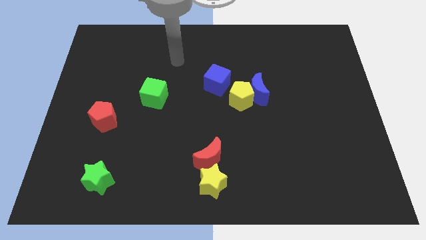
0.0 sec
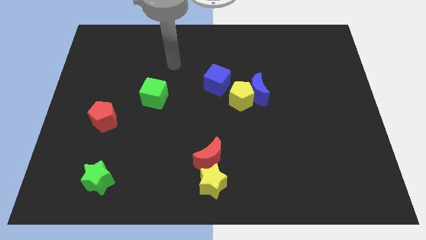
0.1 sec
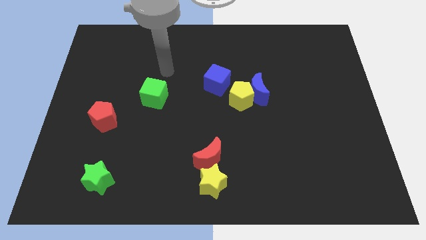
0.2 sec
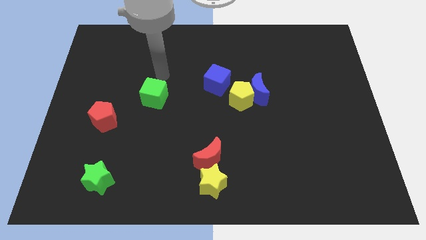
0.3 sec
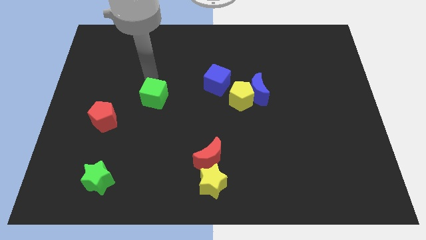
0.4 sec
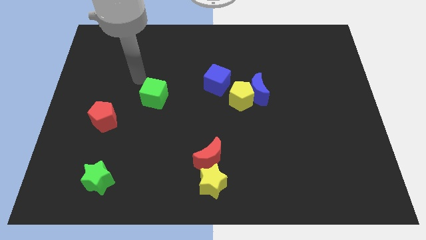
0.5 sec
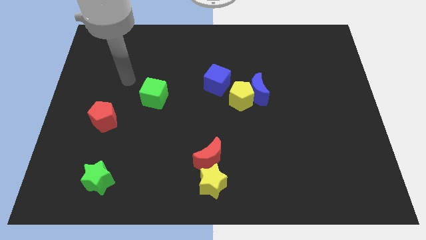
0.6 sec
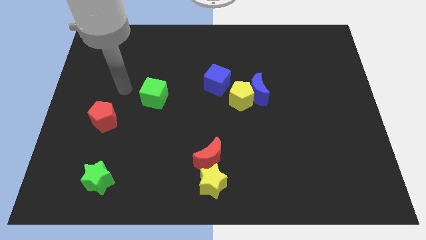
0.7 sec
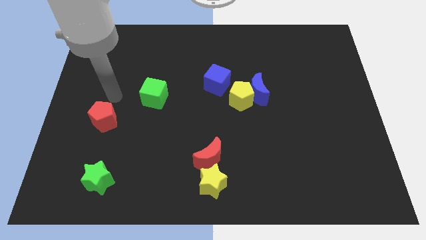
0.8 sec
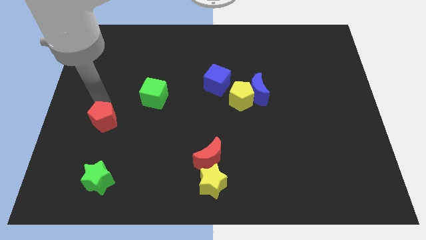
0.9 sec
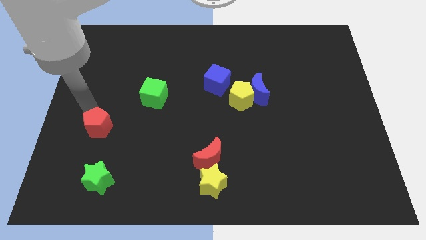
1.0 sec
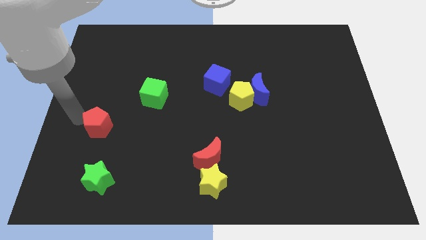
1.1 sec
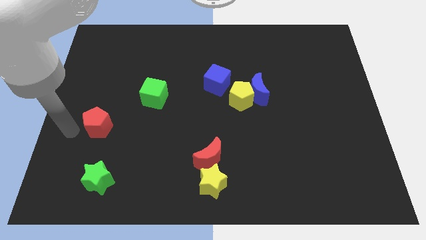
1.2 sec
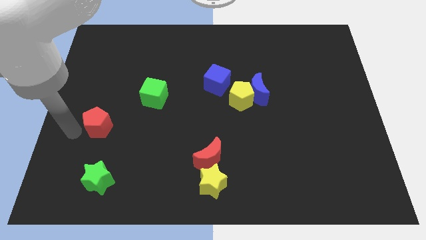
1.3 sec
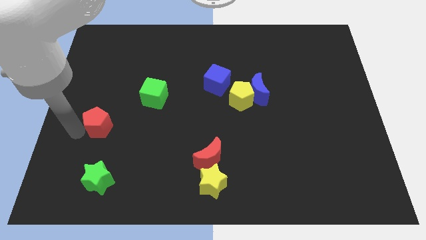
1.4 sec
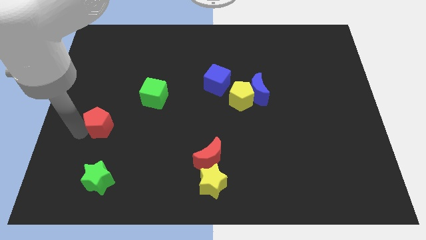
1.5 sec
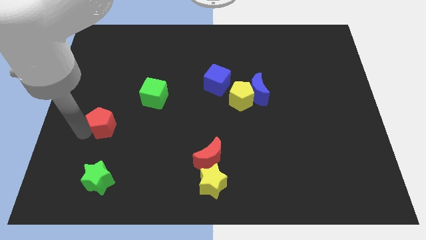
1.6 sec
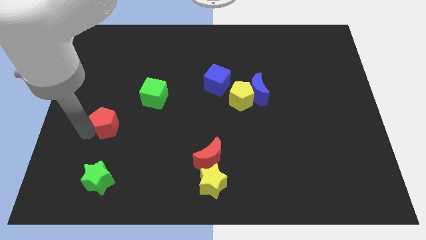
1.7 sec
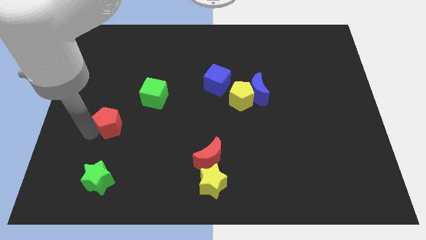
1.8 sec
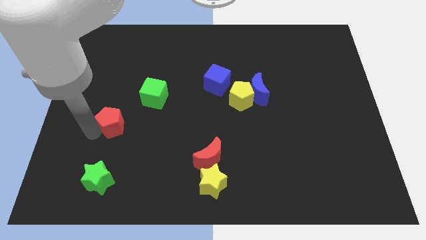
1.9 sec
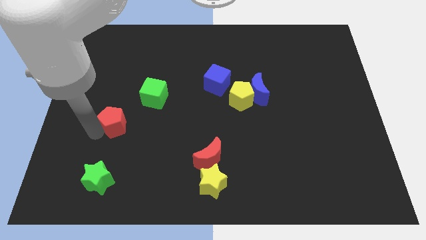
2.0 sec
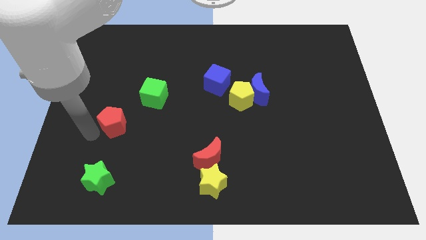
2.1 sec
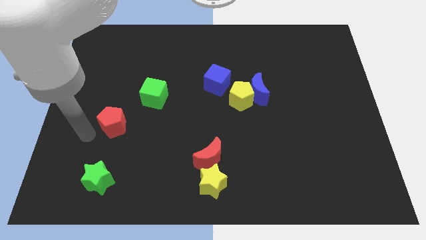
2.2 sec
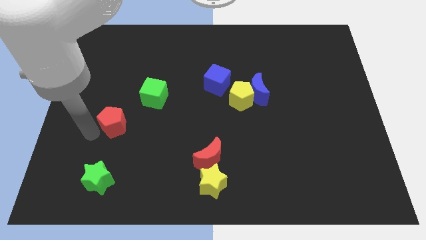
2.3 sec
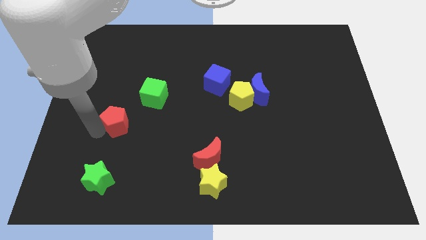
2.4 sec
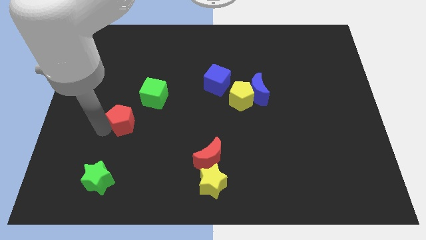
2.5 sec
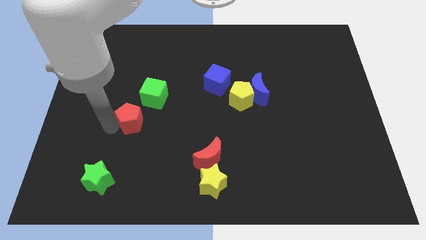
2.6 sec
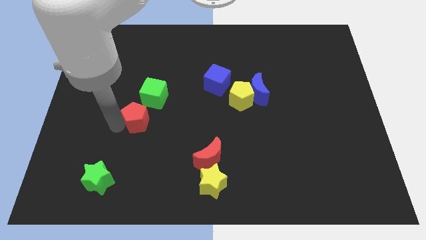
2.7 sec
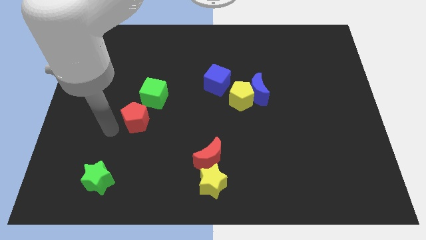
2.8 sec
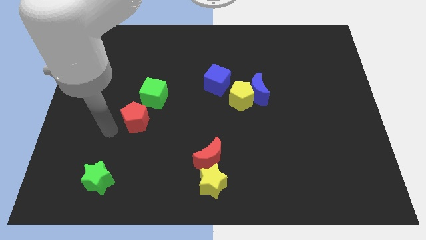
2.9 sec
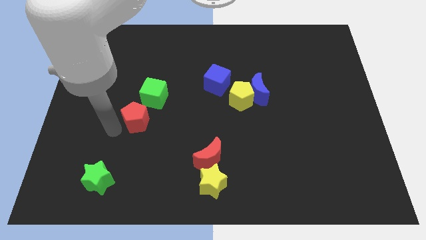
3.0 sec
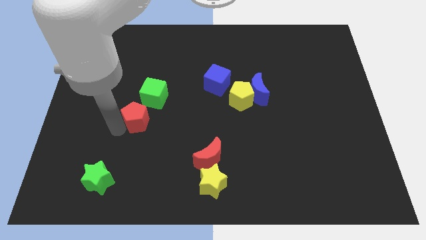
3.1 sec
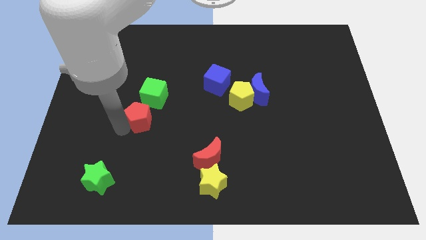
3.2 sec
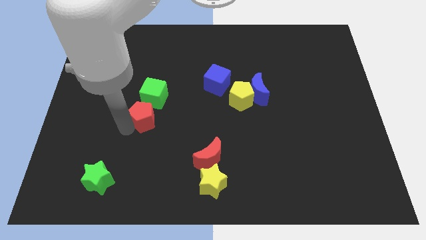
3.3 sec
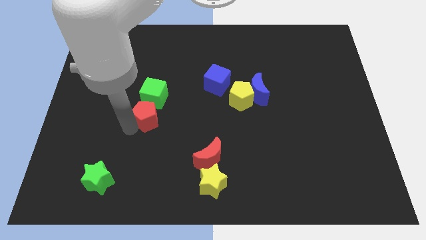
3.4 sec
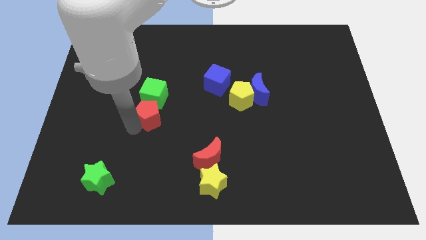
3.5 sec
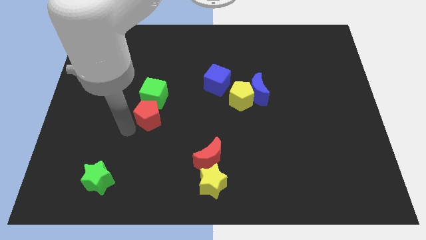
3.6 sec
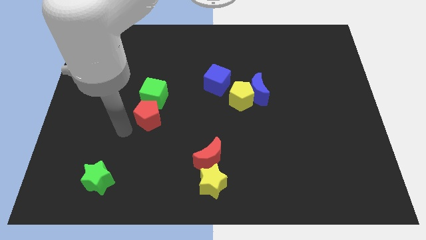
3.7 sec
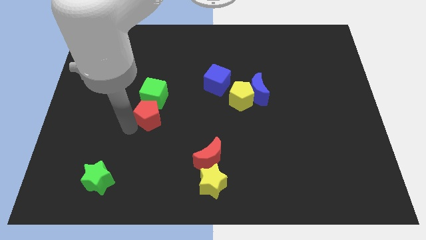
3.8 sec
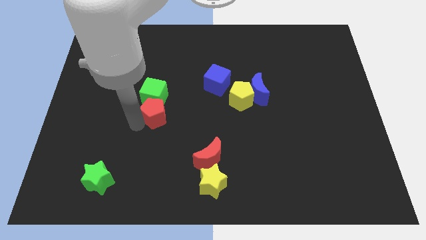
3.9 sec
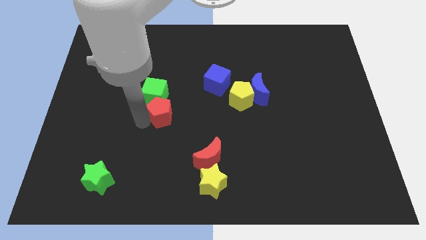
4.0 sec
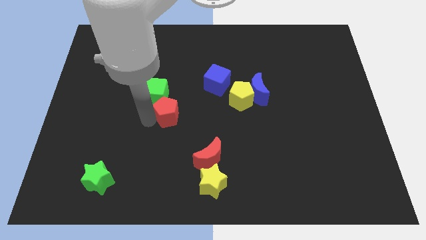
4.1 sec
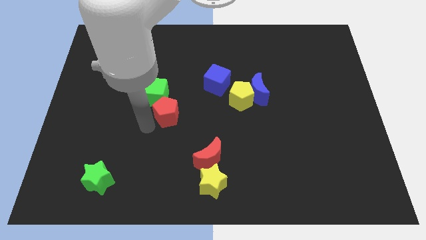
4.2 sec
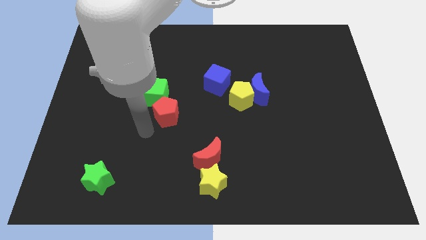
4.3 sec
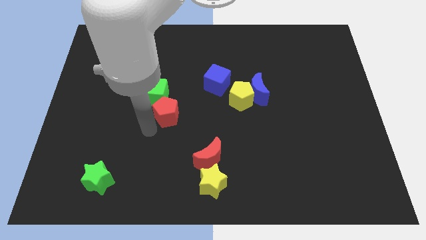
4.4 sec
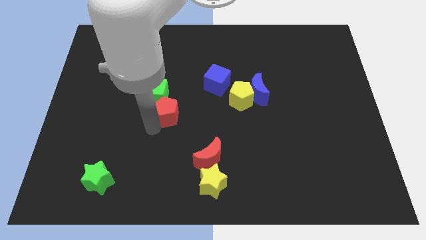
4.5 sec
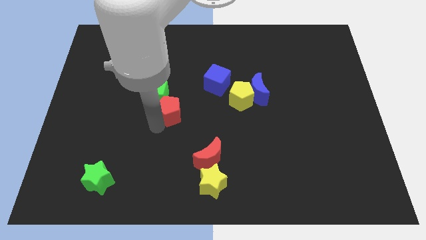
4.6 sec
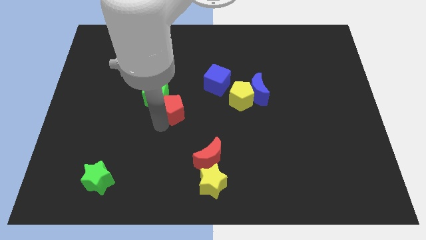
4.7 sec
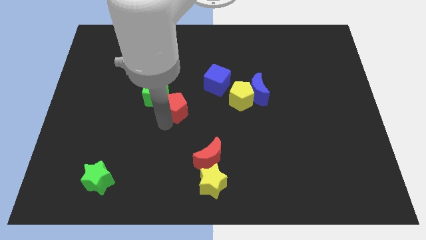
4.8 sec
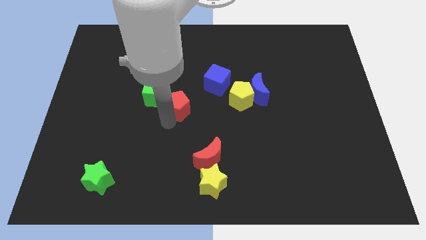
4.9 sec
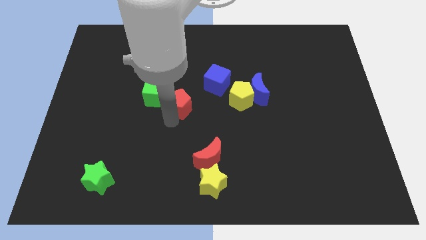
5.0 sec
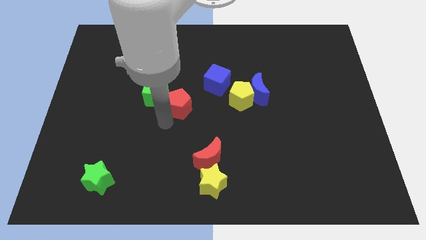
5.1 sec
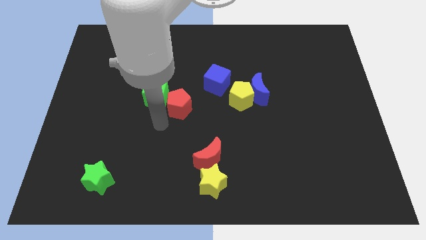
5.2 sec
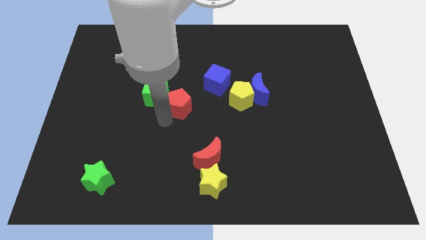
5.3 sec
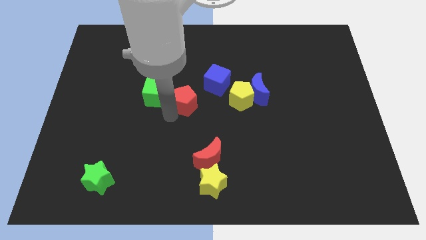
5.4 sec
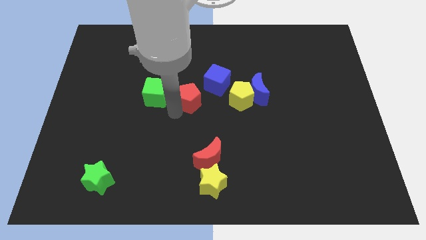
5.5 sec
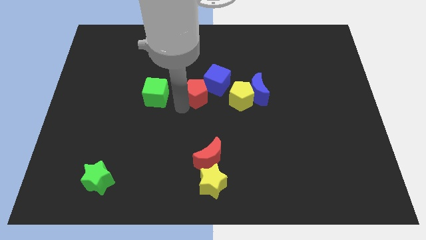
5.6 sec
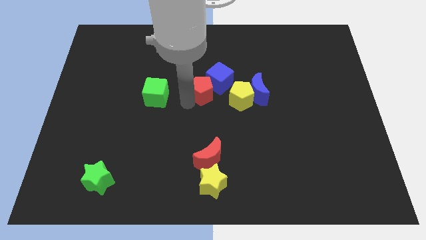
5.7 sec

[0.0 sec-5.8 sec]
put the red pentagon next to the blue cube

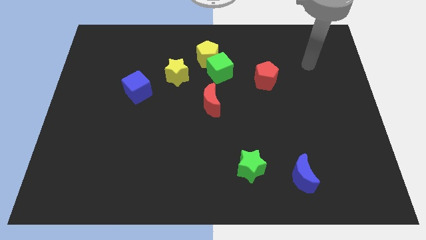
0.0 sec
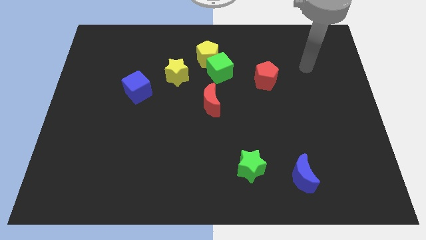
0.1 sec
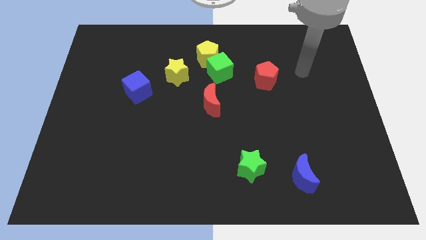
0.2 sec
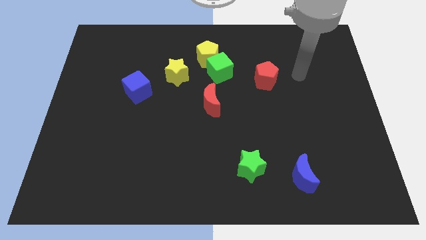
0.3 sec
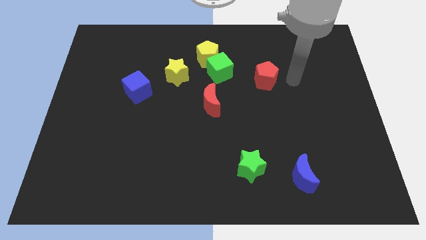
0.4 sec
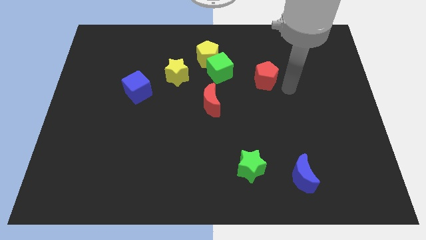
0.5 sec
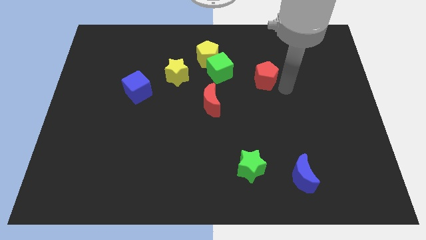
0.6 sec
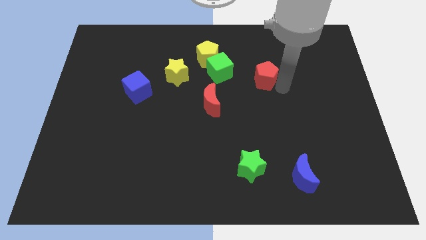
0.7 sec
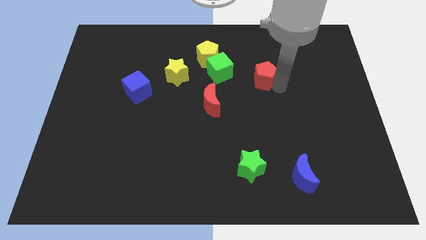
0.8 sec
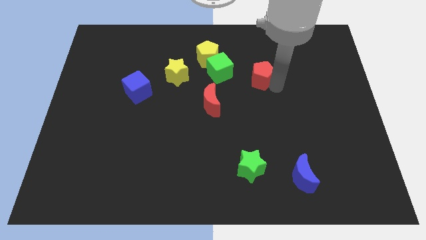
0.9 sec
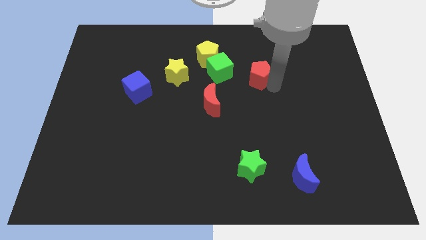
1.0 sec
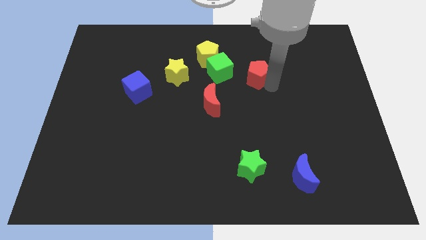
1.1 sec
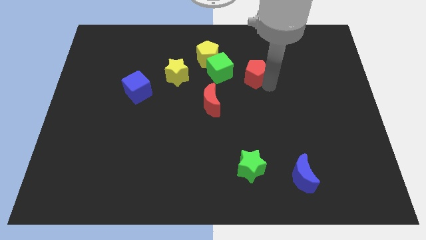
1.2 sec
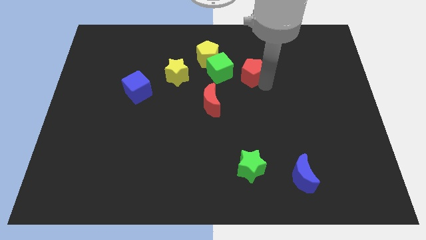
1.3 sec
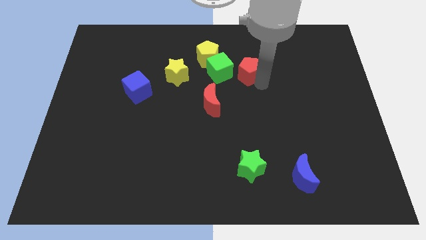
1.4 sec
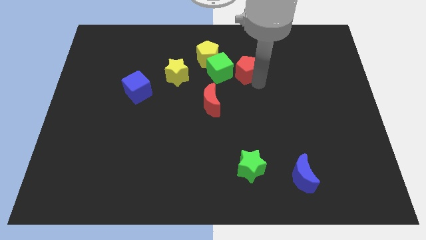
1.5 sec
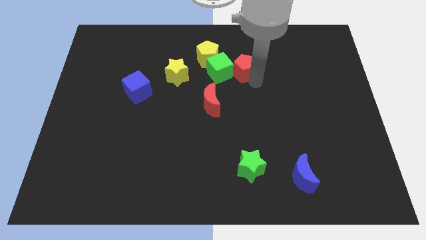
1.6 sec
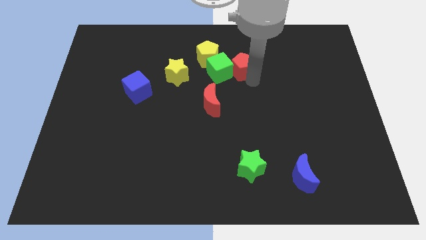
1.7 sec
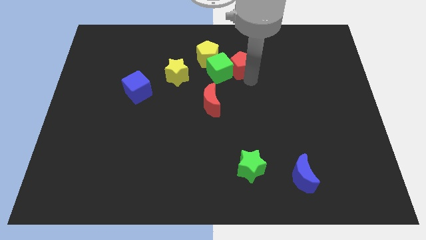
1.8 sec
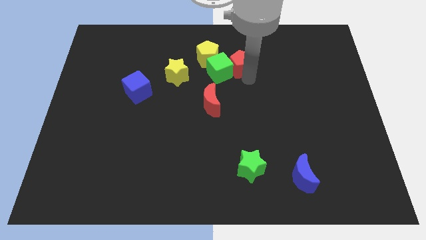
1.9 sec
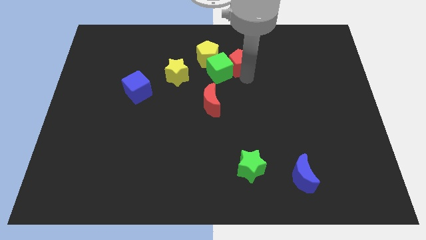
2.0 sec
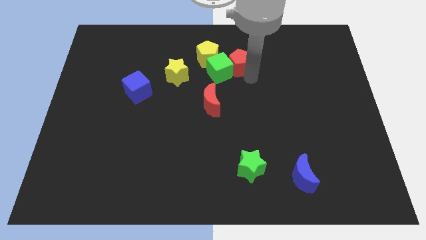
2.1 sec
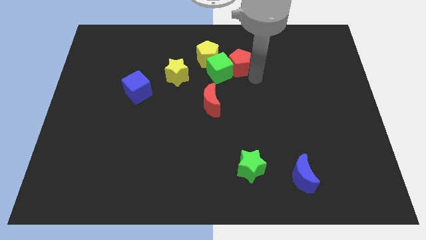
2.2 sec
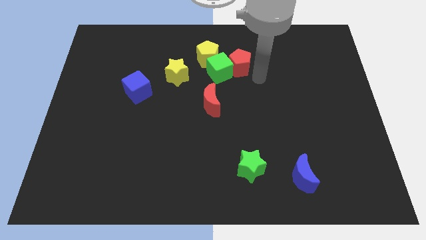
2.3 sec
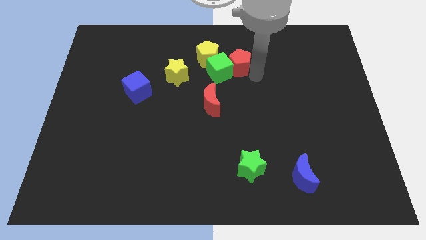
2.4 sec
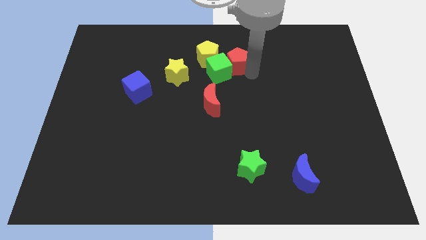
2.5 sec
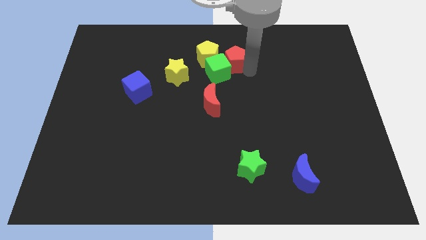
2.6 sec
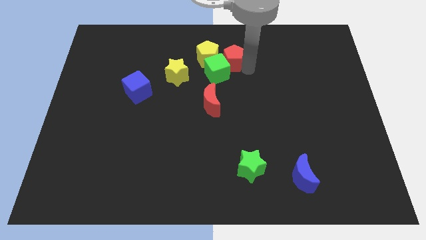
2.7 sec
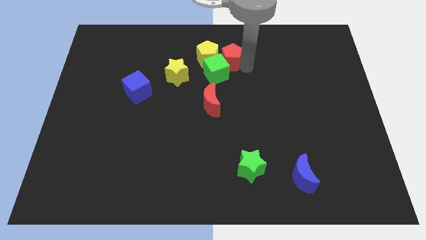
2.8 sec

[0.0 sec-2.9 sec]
push the red pentagon towards the yellow pentagon
